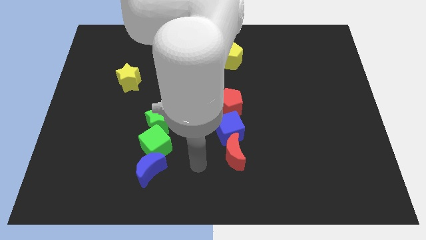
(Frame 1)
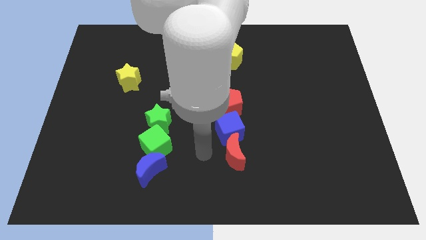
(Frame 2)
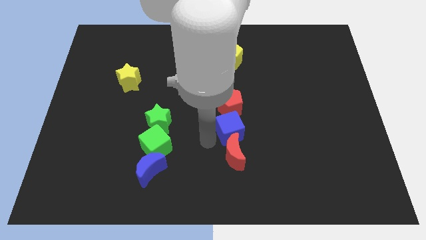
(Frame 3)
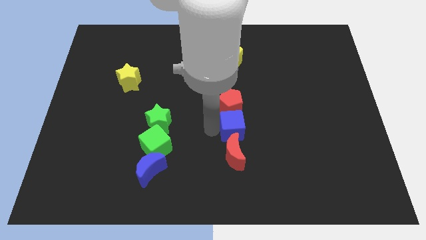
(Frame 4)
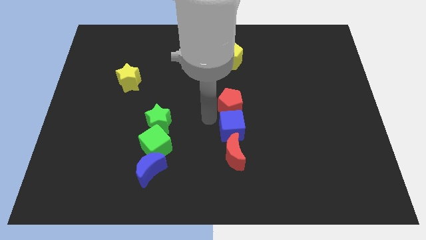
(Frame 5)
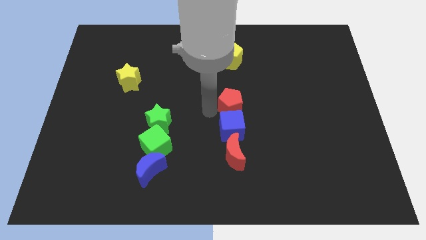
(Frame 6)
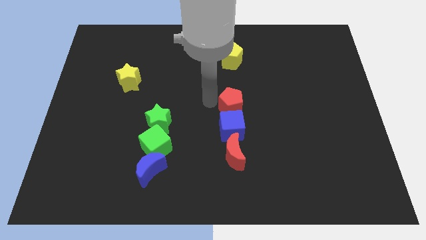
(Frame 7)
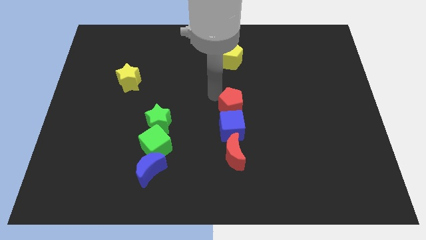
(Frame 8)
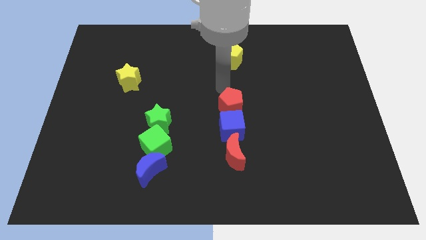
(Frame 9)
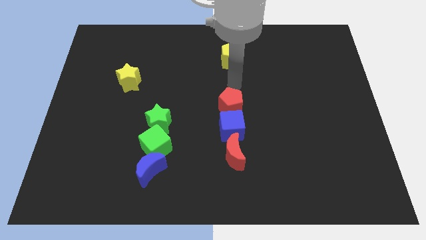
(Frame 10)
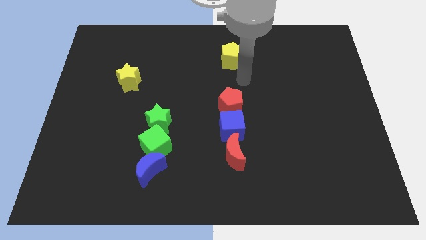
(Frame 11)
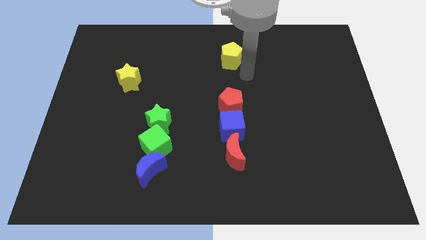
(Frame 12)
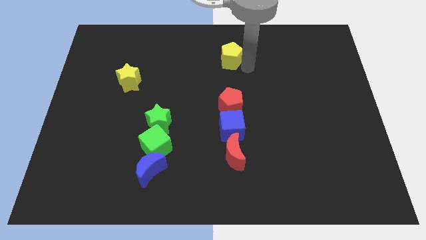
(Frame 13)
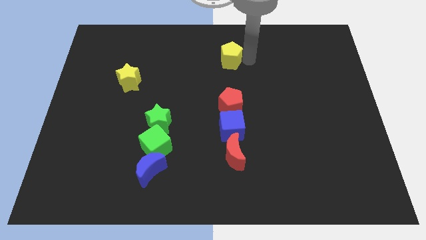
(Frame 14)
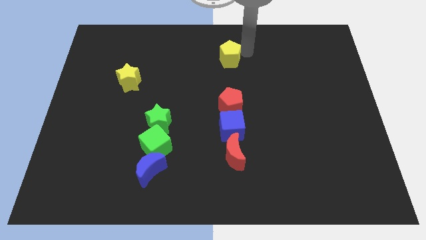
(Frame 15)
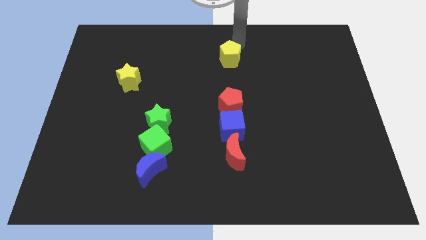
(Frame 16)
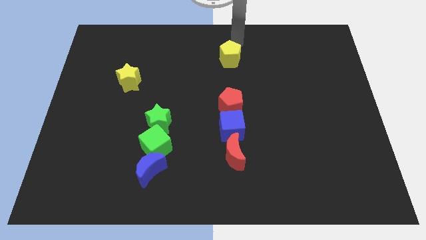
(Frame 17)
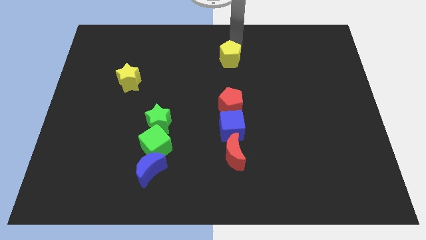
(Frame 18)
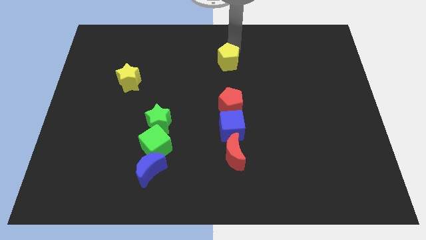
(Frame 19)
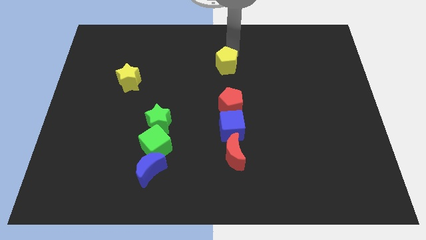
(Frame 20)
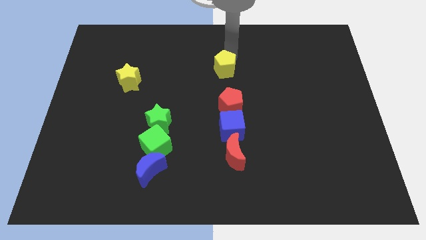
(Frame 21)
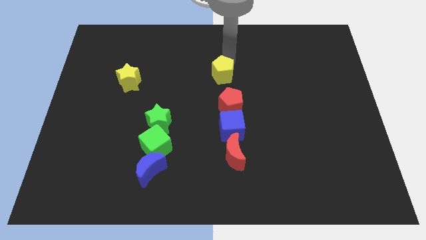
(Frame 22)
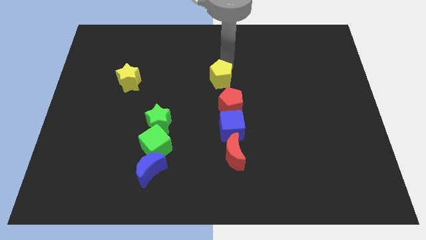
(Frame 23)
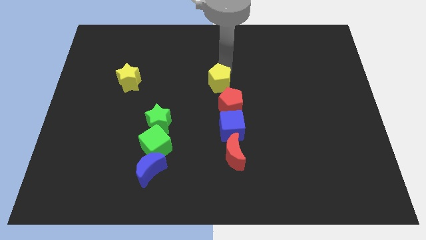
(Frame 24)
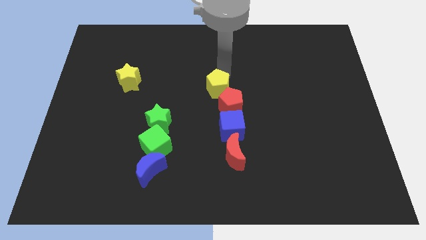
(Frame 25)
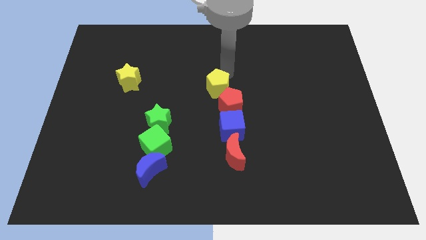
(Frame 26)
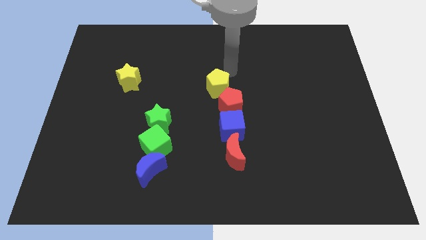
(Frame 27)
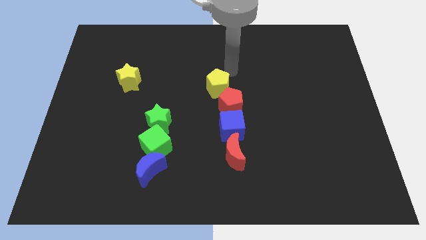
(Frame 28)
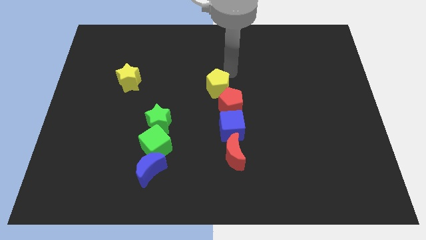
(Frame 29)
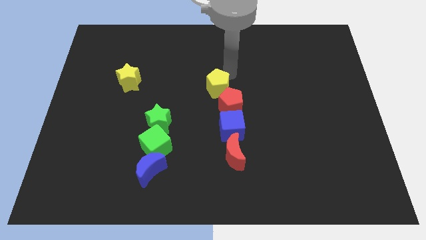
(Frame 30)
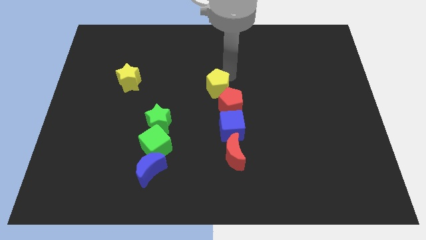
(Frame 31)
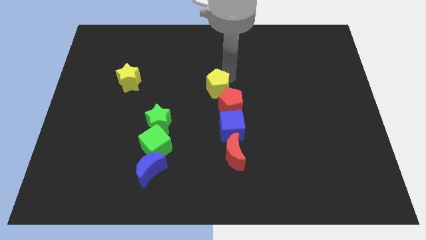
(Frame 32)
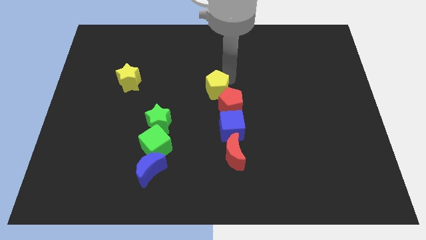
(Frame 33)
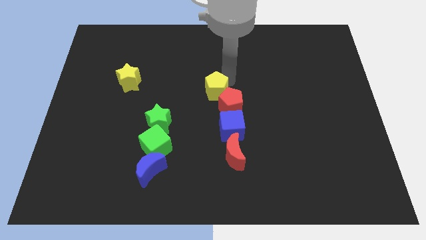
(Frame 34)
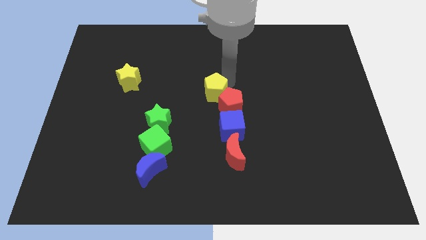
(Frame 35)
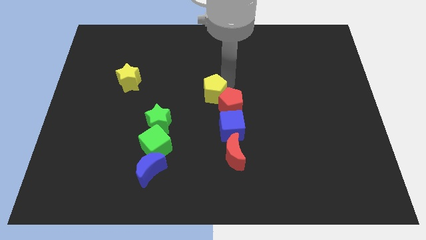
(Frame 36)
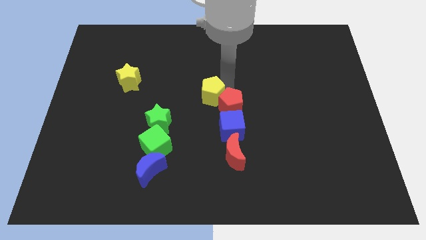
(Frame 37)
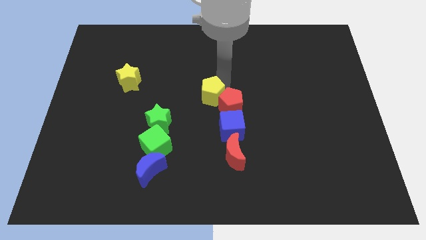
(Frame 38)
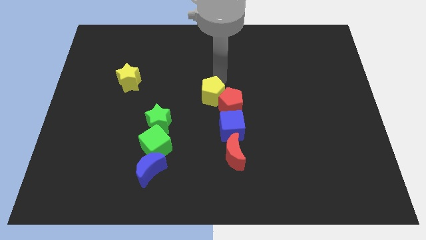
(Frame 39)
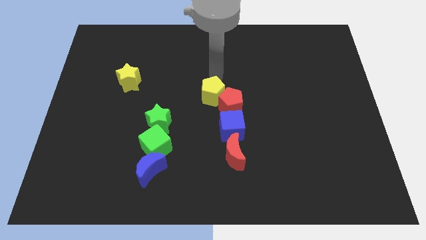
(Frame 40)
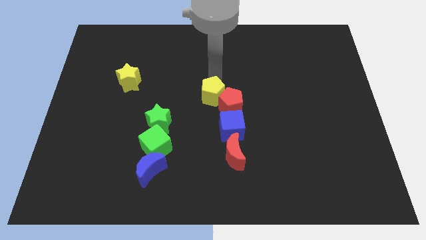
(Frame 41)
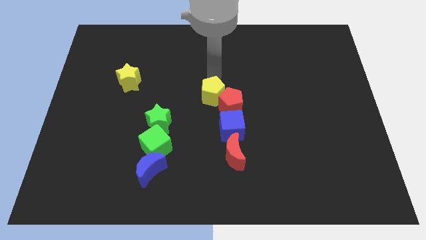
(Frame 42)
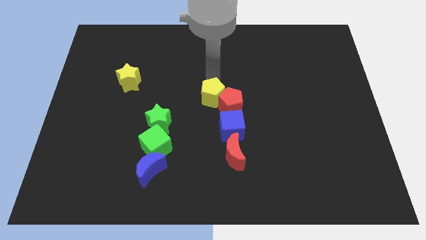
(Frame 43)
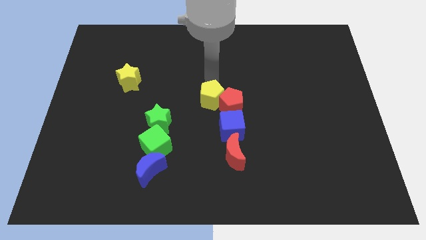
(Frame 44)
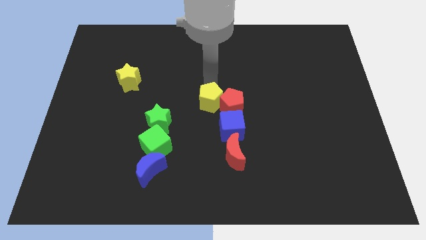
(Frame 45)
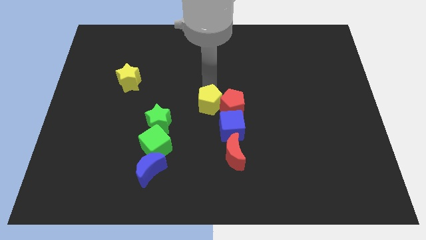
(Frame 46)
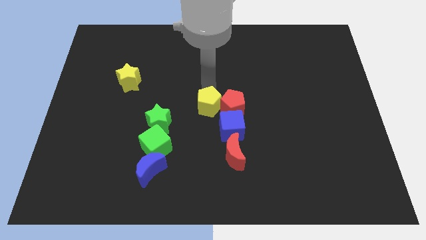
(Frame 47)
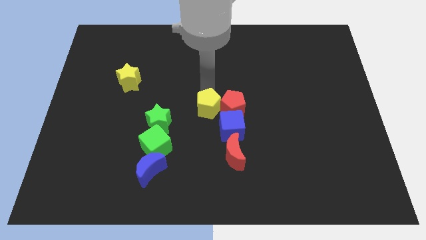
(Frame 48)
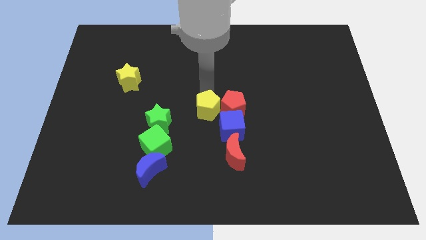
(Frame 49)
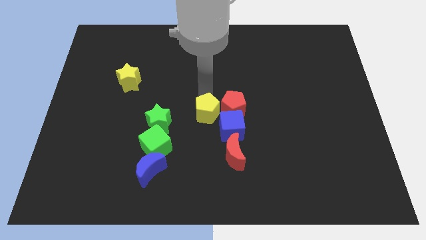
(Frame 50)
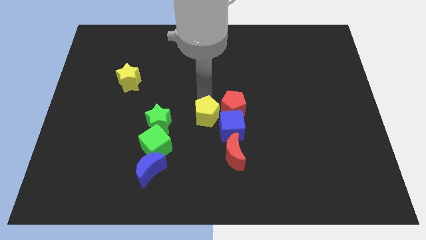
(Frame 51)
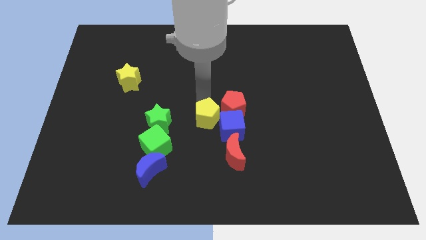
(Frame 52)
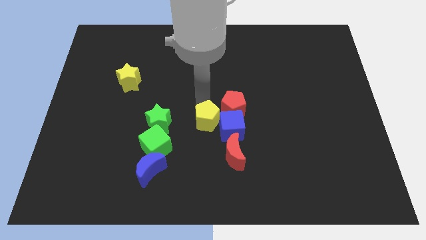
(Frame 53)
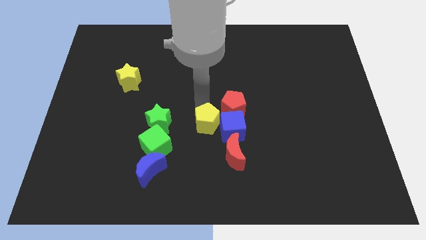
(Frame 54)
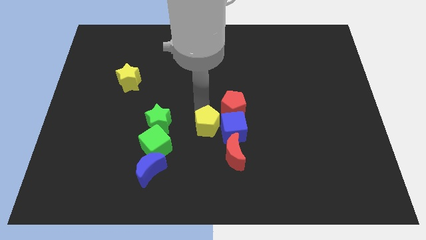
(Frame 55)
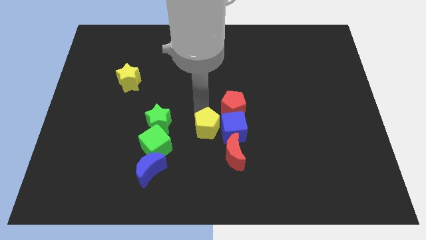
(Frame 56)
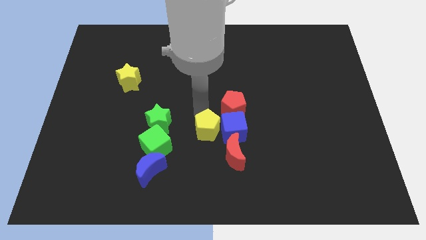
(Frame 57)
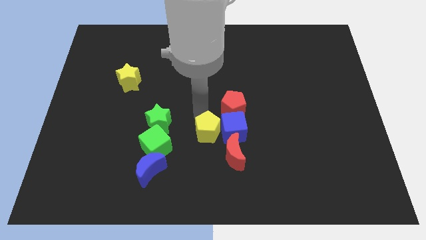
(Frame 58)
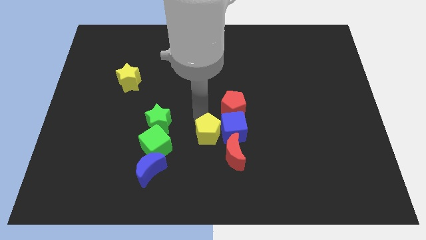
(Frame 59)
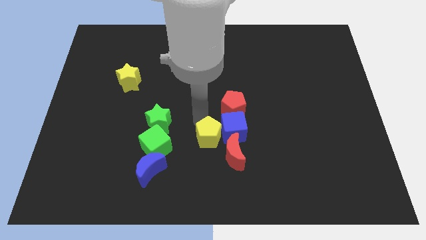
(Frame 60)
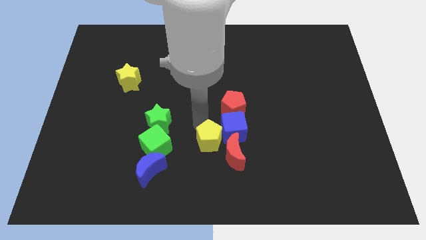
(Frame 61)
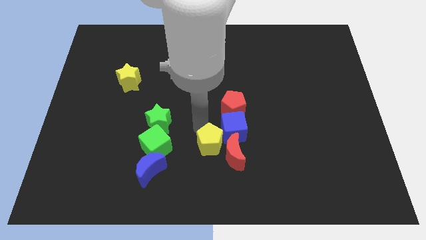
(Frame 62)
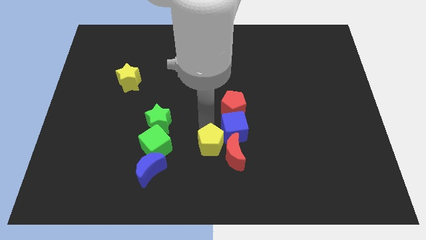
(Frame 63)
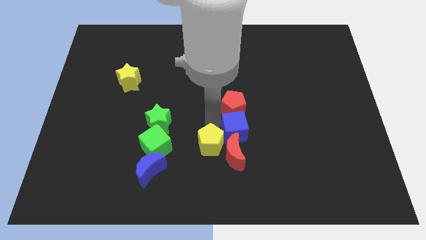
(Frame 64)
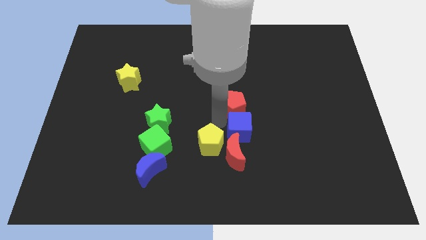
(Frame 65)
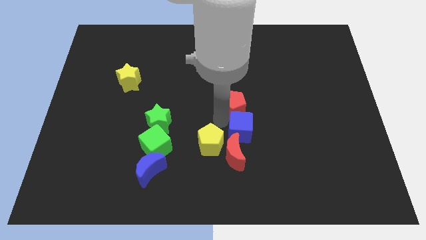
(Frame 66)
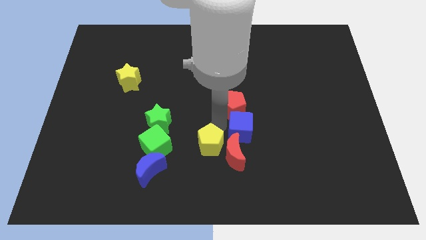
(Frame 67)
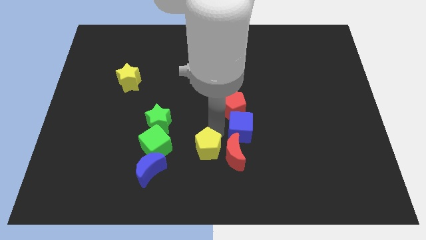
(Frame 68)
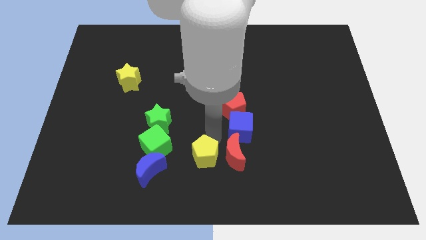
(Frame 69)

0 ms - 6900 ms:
put the yellow pentagon to the right side of the blue moon
